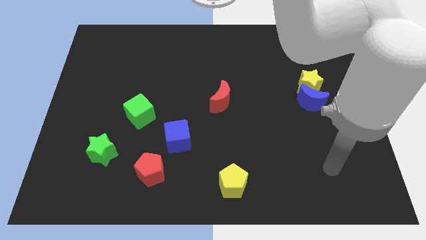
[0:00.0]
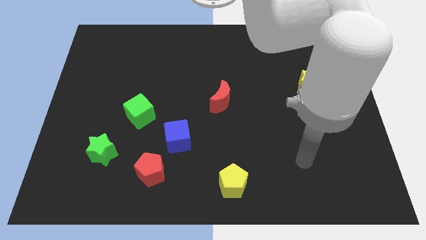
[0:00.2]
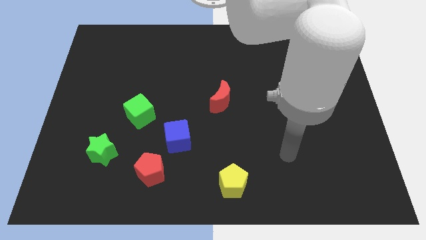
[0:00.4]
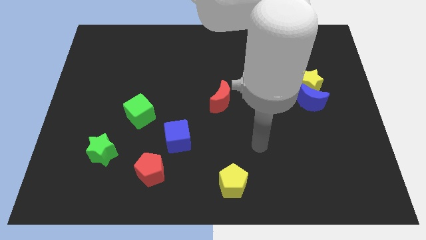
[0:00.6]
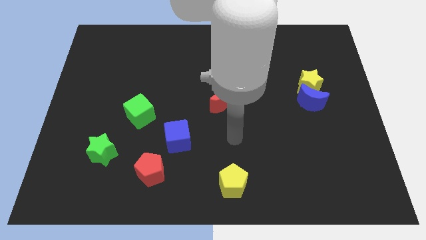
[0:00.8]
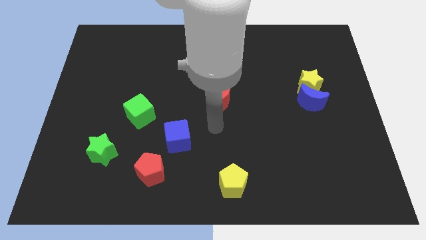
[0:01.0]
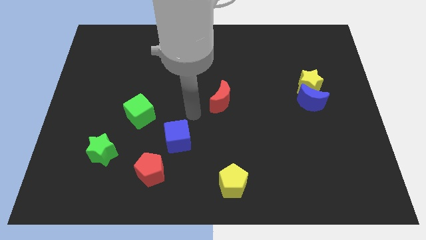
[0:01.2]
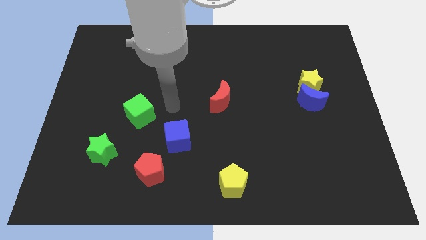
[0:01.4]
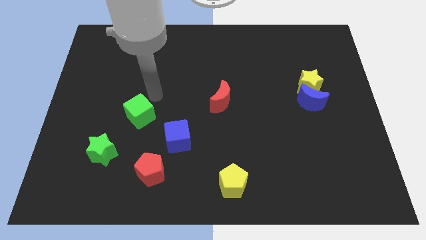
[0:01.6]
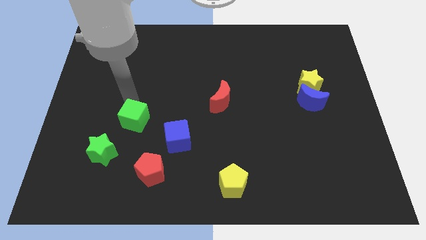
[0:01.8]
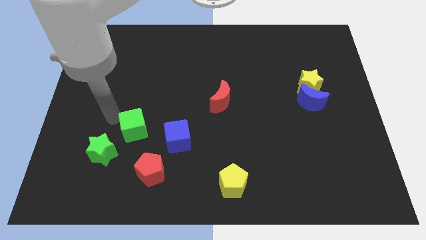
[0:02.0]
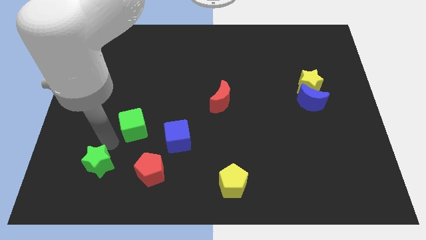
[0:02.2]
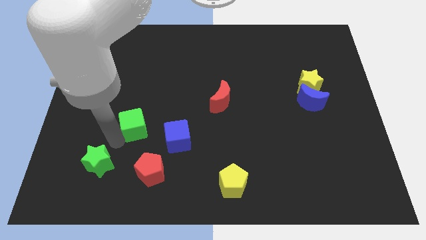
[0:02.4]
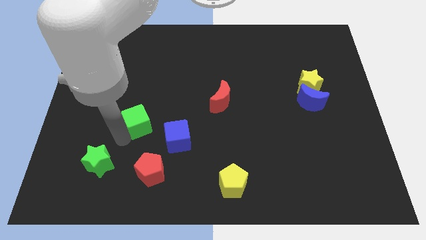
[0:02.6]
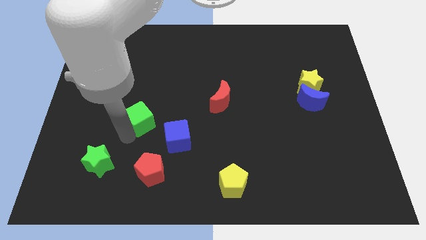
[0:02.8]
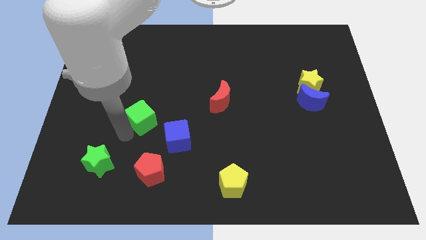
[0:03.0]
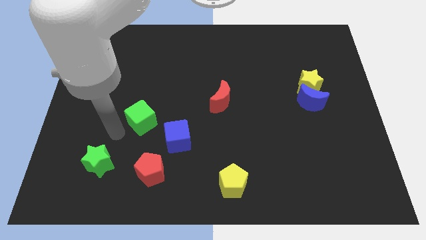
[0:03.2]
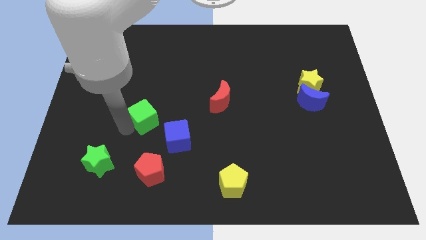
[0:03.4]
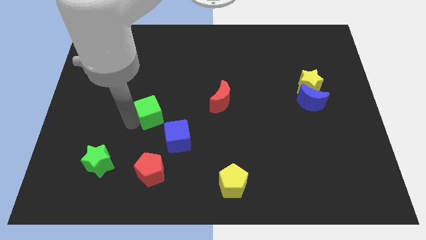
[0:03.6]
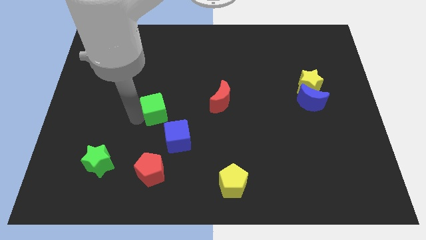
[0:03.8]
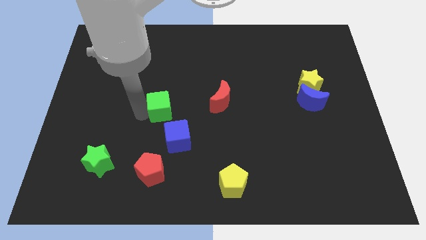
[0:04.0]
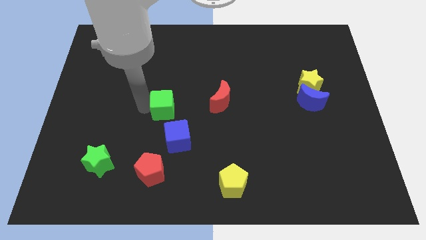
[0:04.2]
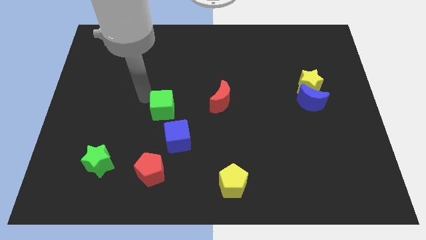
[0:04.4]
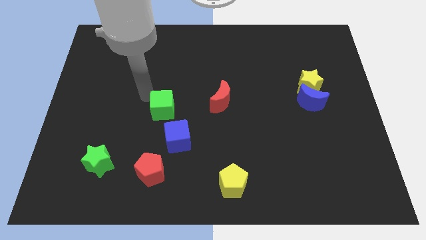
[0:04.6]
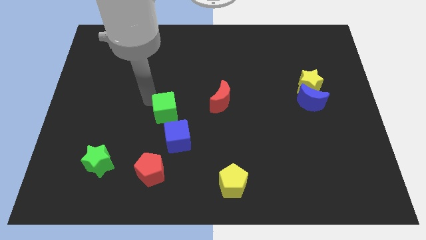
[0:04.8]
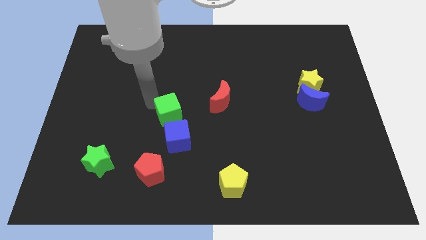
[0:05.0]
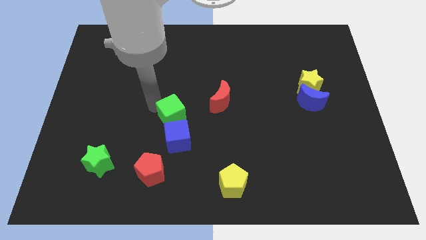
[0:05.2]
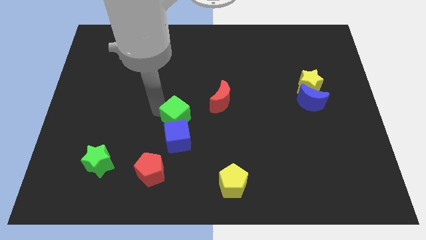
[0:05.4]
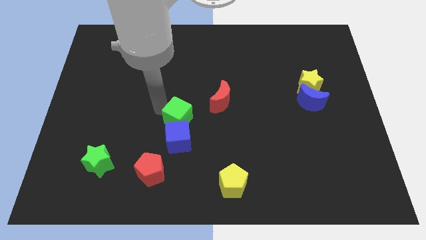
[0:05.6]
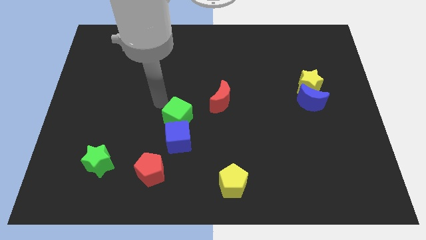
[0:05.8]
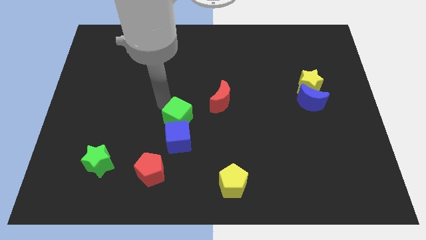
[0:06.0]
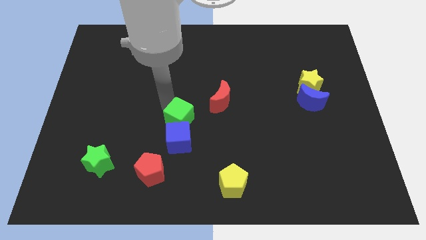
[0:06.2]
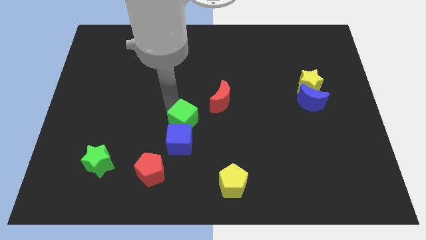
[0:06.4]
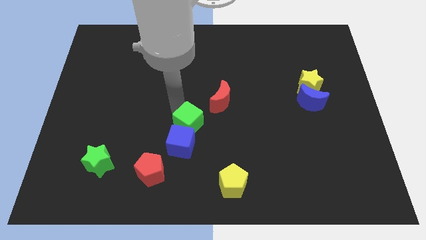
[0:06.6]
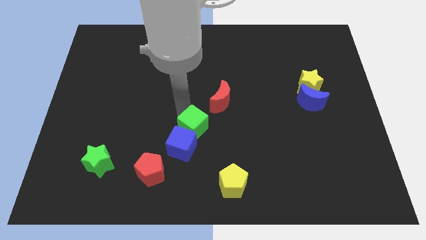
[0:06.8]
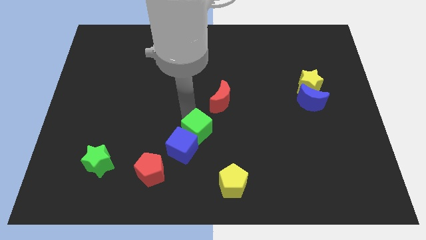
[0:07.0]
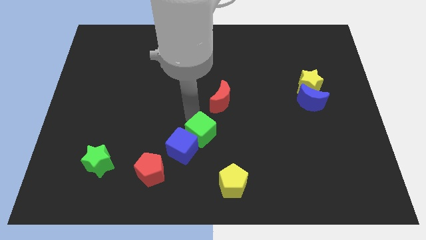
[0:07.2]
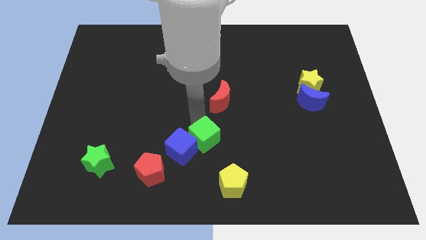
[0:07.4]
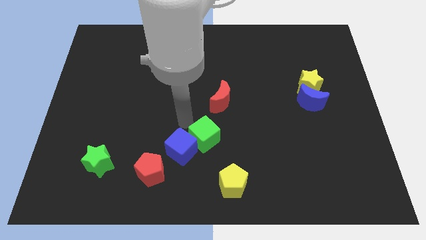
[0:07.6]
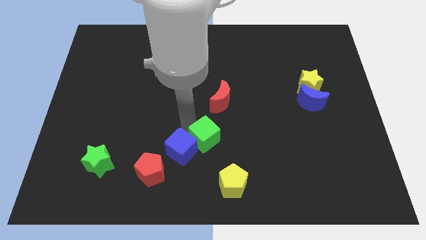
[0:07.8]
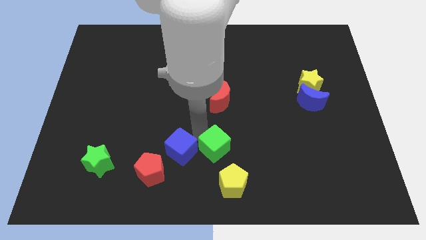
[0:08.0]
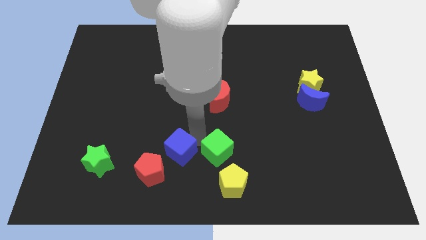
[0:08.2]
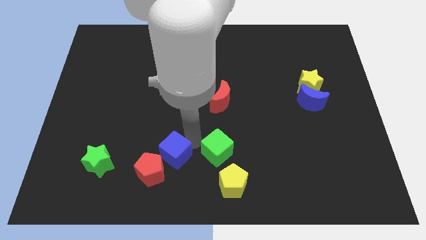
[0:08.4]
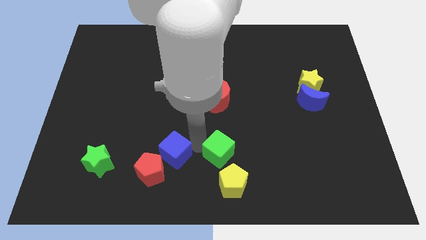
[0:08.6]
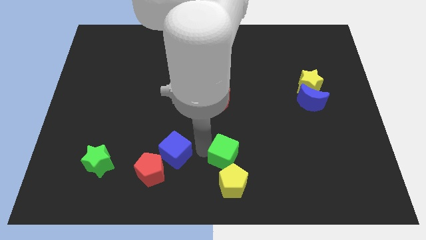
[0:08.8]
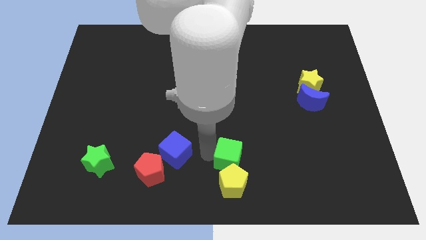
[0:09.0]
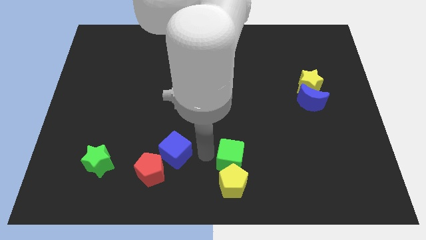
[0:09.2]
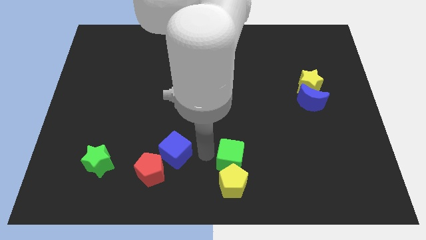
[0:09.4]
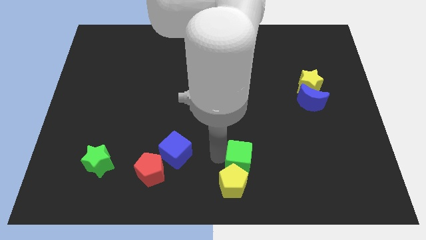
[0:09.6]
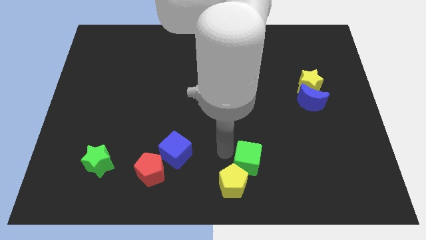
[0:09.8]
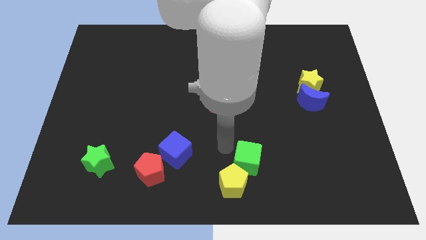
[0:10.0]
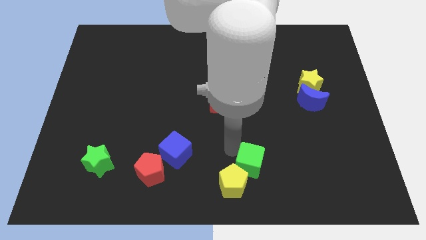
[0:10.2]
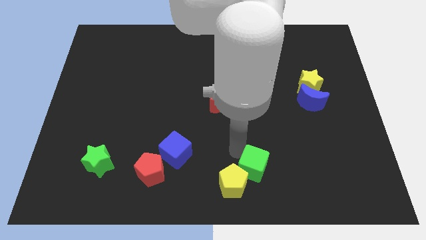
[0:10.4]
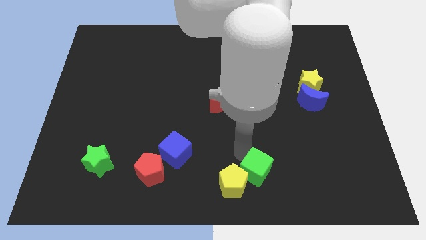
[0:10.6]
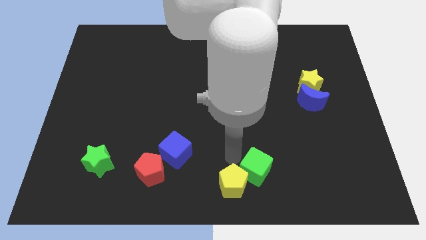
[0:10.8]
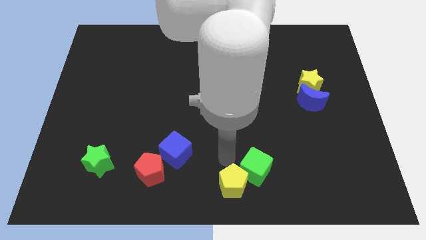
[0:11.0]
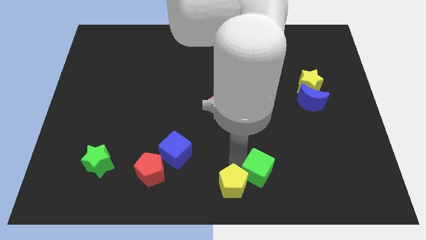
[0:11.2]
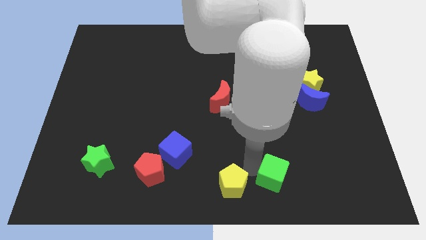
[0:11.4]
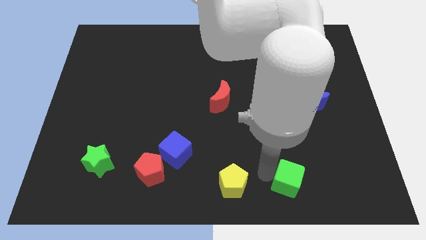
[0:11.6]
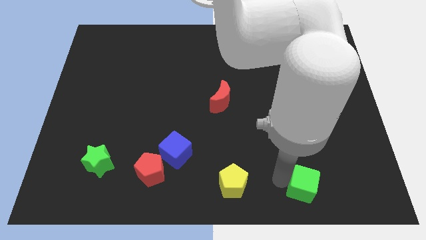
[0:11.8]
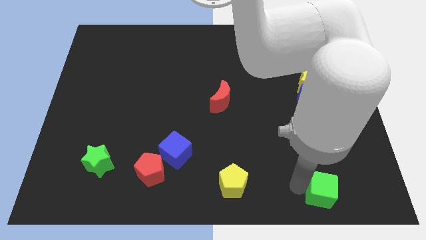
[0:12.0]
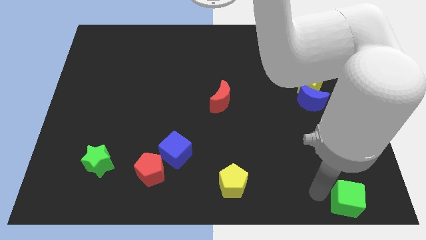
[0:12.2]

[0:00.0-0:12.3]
push the green cube to the lower right corner

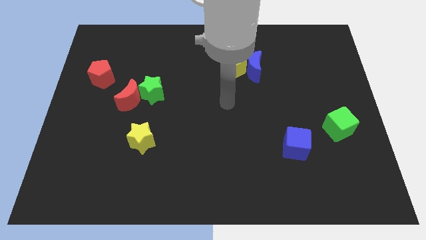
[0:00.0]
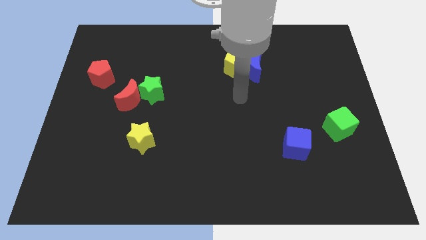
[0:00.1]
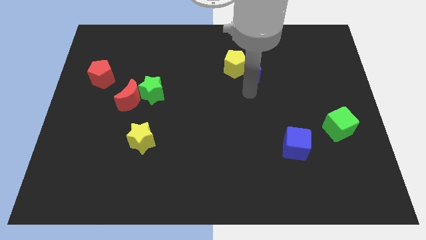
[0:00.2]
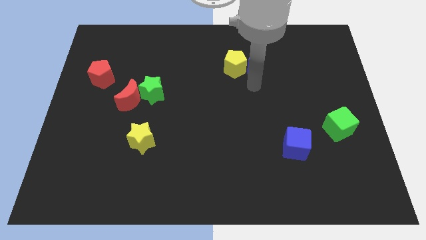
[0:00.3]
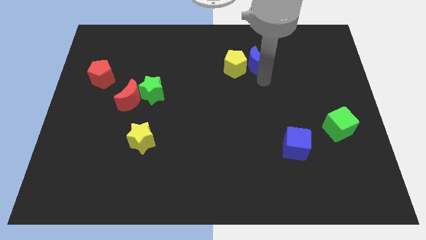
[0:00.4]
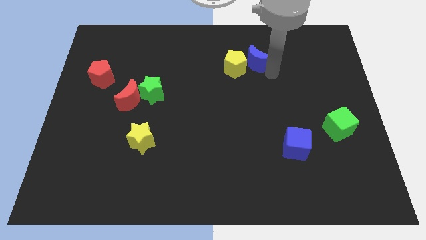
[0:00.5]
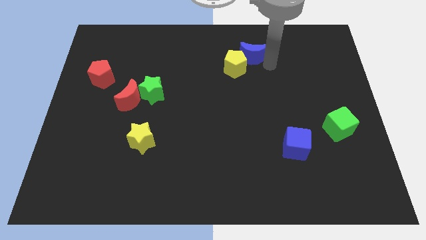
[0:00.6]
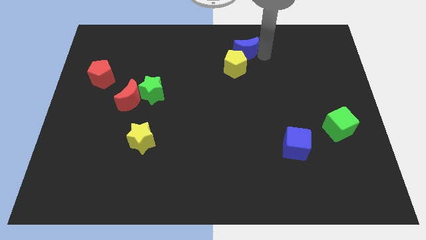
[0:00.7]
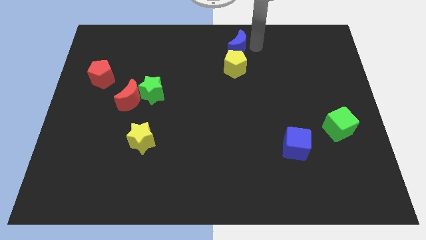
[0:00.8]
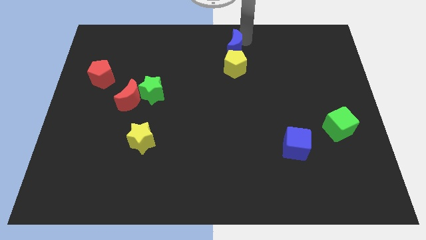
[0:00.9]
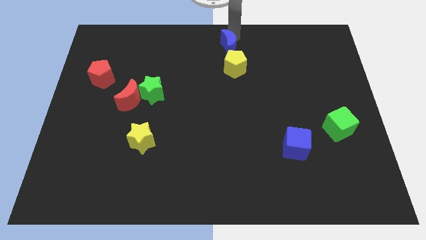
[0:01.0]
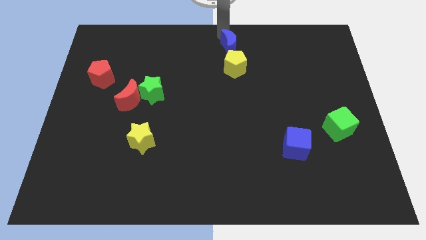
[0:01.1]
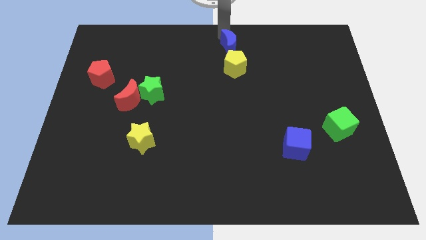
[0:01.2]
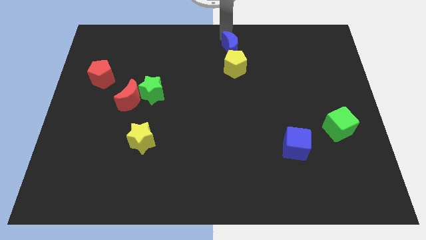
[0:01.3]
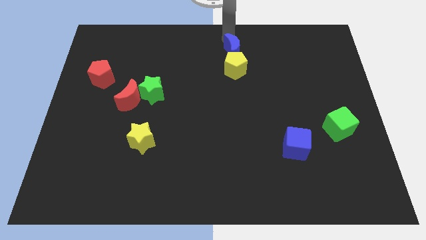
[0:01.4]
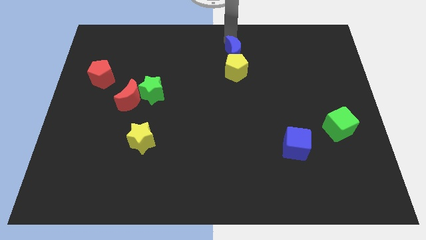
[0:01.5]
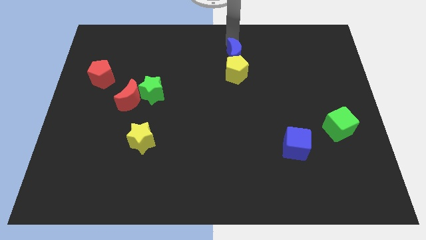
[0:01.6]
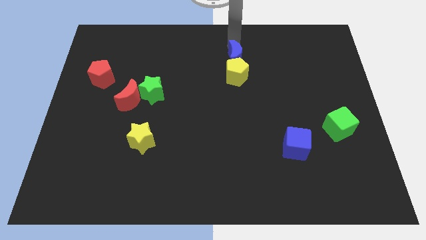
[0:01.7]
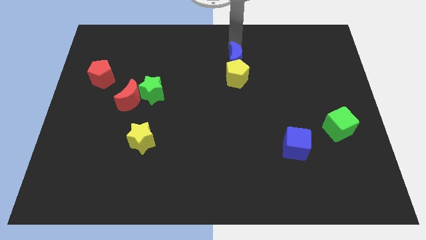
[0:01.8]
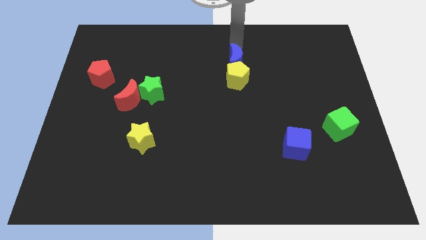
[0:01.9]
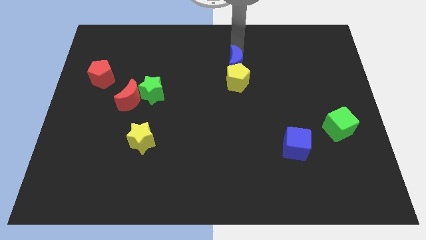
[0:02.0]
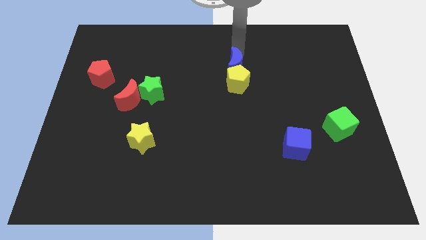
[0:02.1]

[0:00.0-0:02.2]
put the blue moon to the middle
